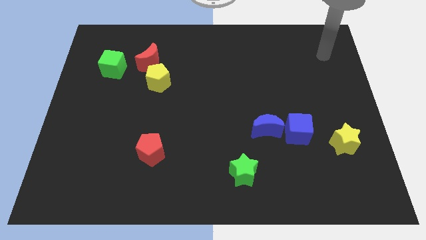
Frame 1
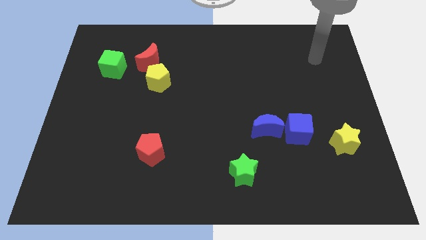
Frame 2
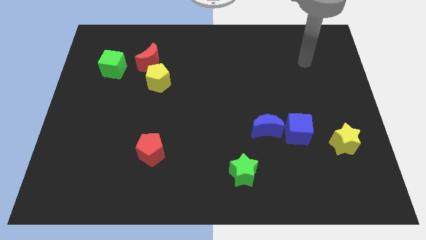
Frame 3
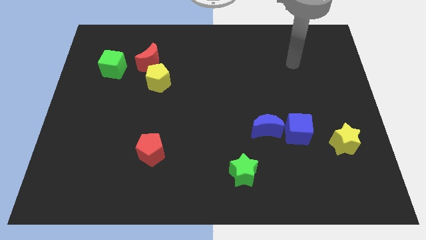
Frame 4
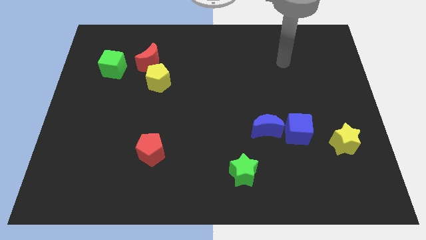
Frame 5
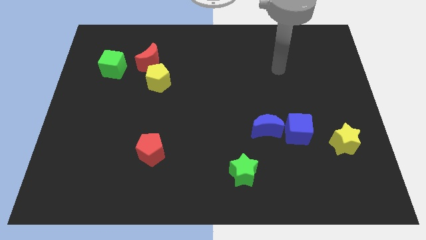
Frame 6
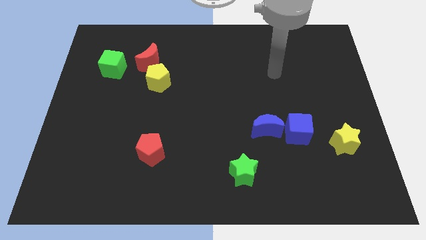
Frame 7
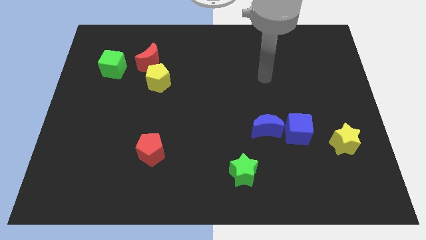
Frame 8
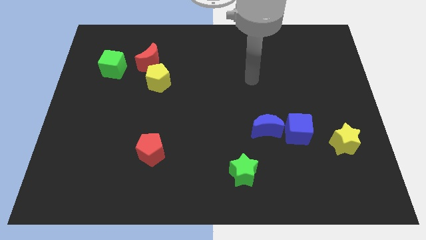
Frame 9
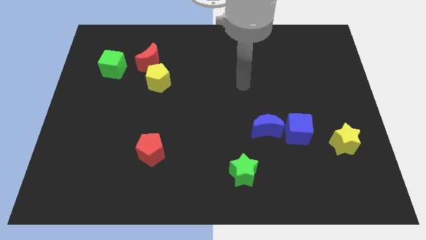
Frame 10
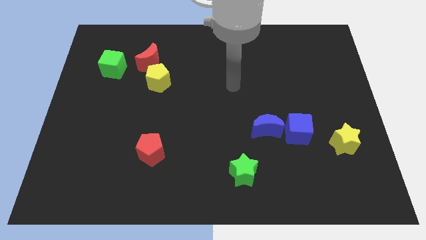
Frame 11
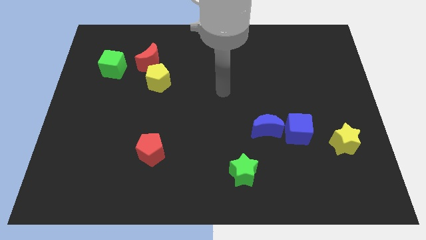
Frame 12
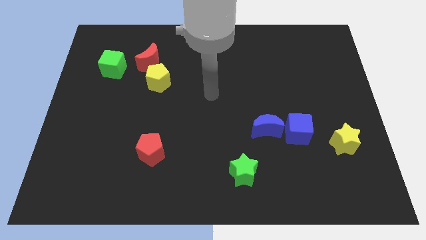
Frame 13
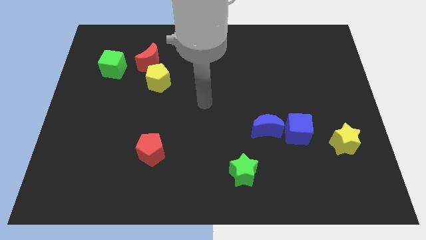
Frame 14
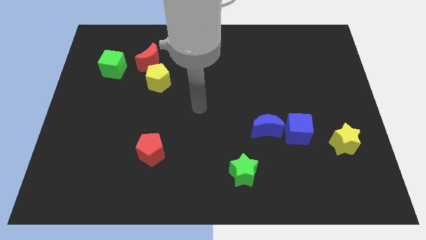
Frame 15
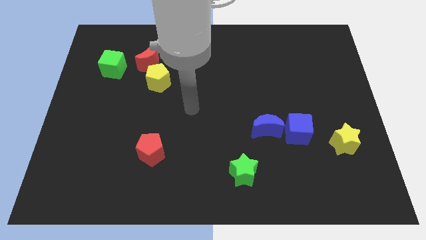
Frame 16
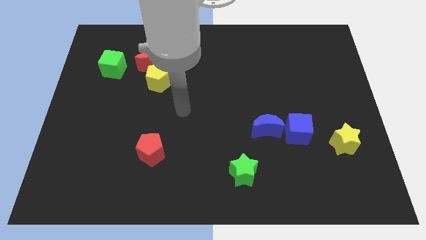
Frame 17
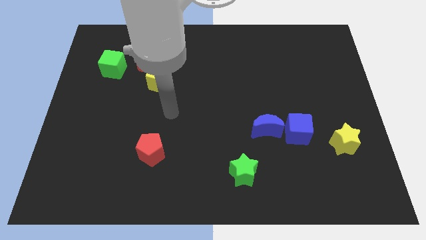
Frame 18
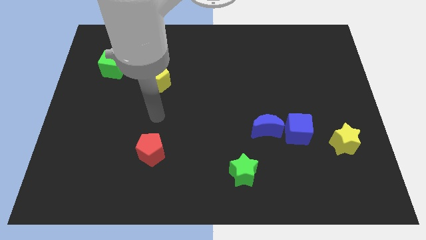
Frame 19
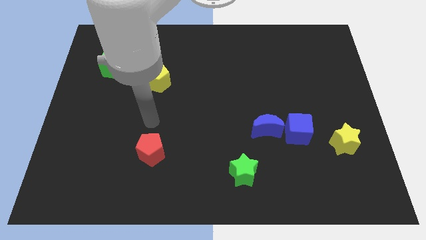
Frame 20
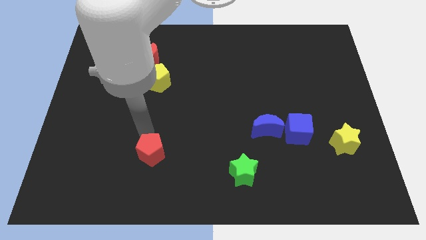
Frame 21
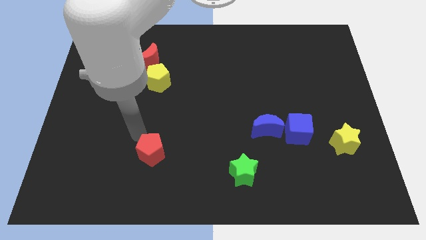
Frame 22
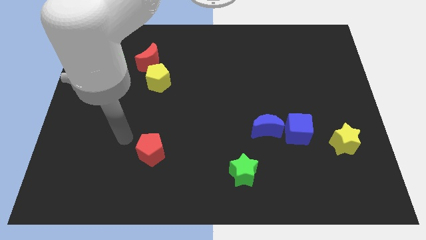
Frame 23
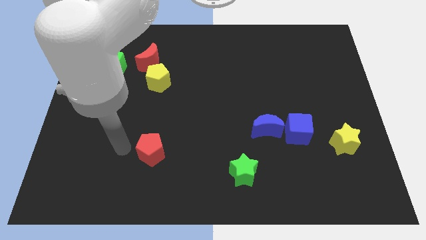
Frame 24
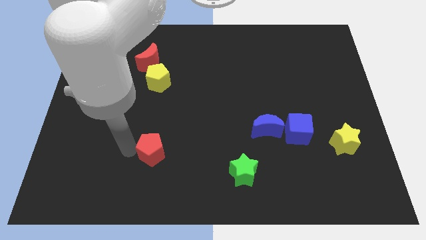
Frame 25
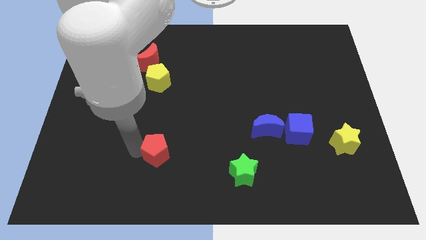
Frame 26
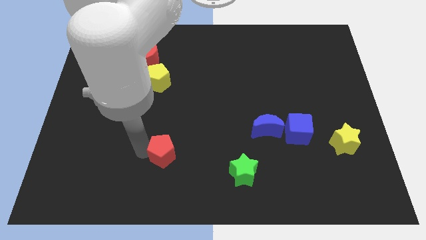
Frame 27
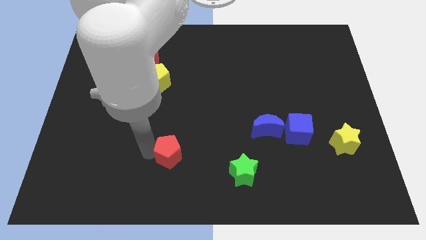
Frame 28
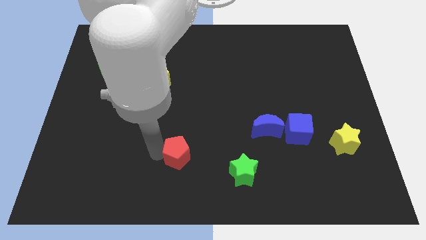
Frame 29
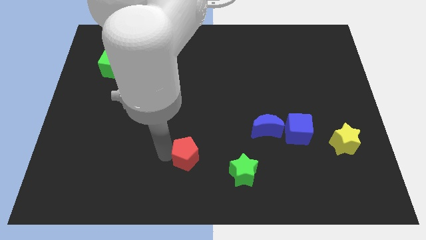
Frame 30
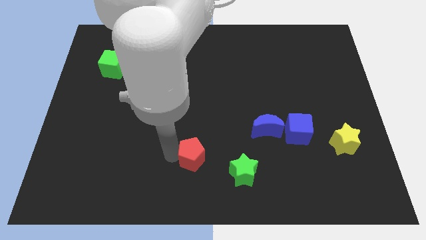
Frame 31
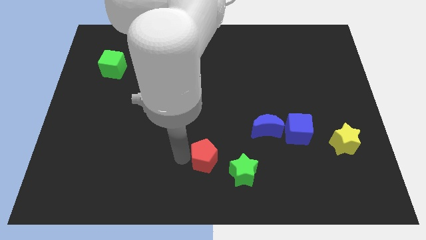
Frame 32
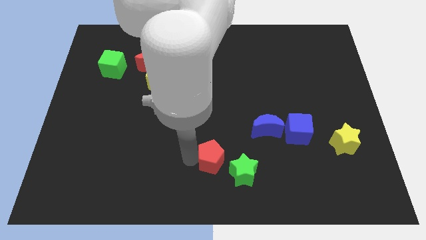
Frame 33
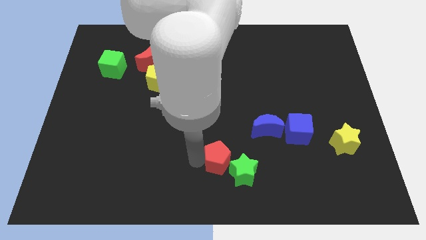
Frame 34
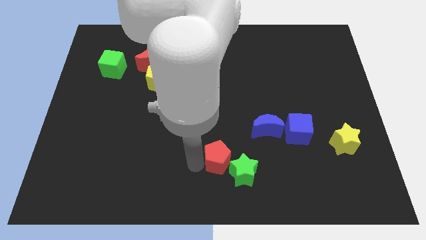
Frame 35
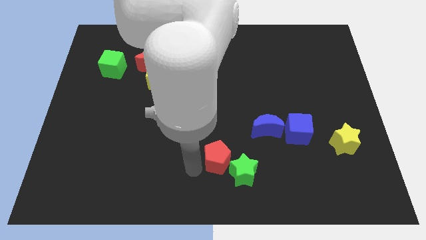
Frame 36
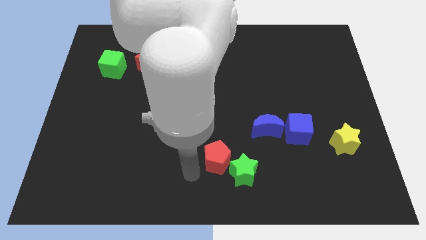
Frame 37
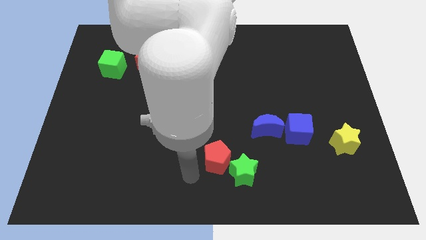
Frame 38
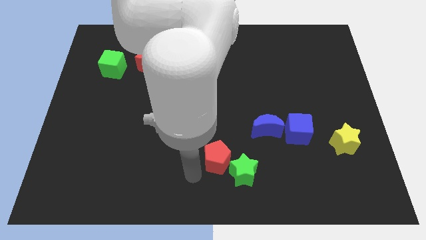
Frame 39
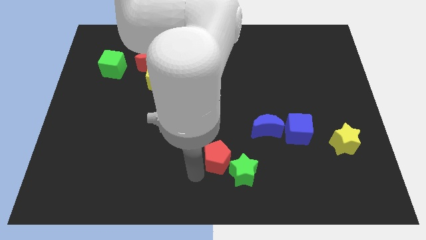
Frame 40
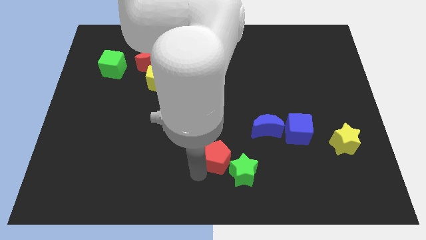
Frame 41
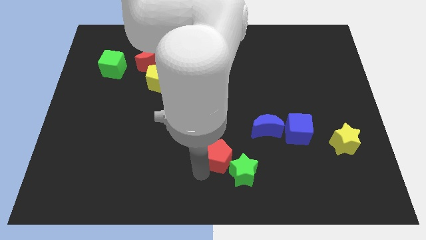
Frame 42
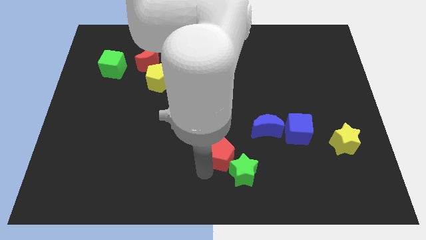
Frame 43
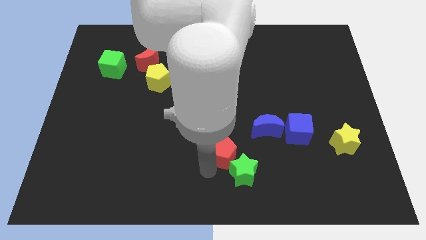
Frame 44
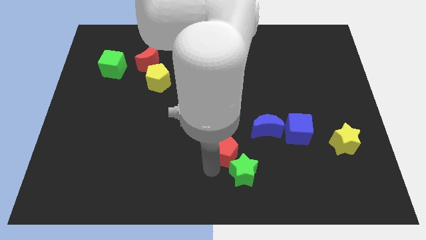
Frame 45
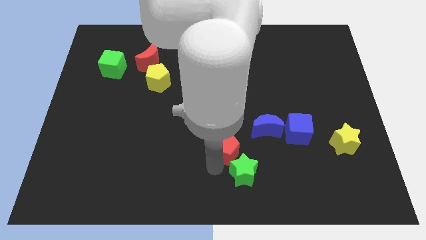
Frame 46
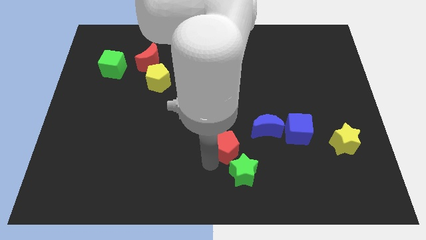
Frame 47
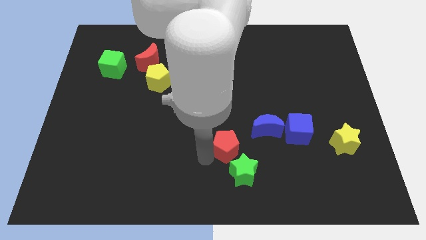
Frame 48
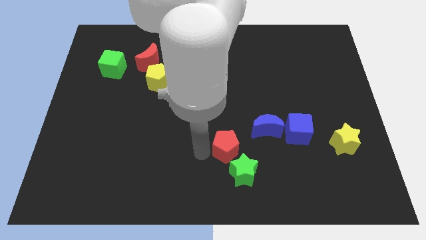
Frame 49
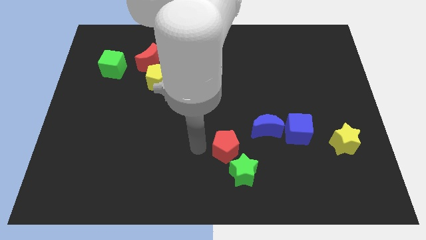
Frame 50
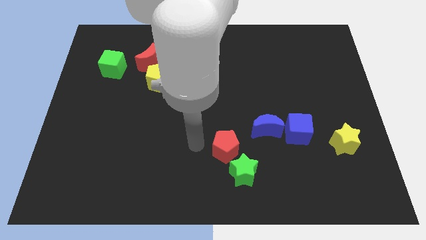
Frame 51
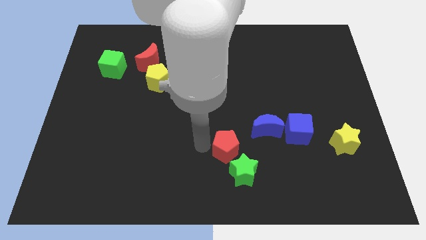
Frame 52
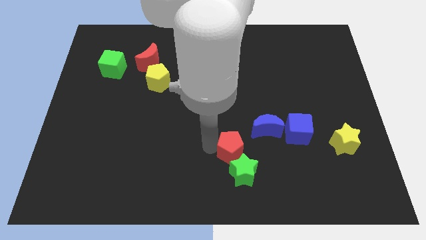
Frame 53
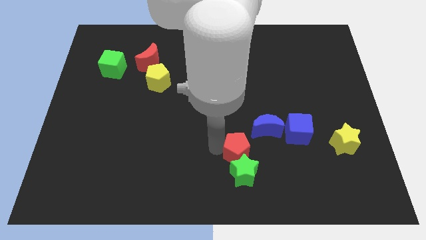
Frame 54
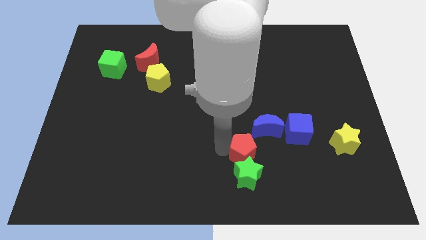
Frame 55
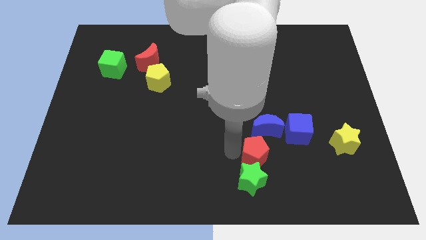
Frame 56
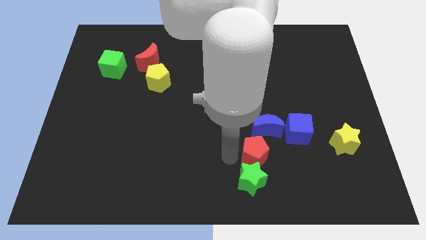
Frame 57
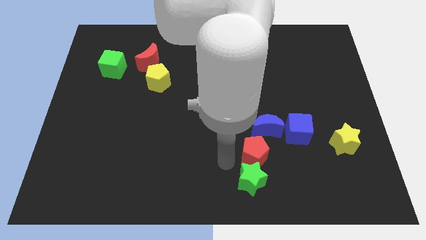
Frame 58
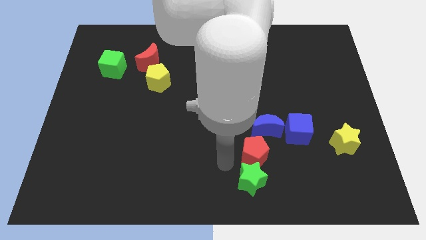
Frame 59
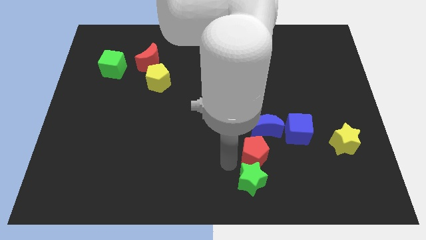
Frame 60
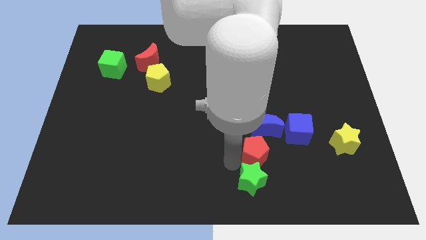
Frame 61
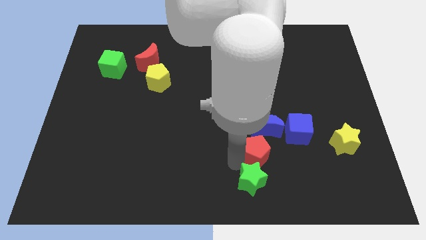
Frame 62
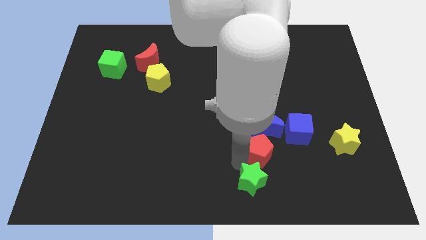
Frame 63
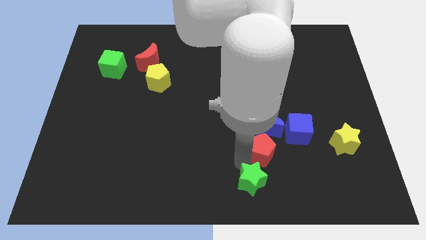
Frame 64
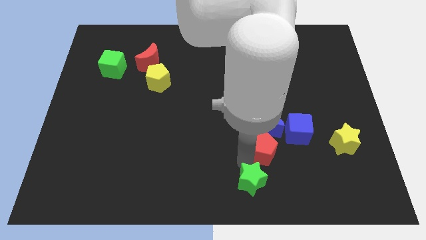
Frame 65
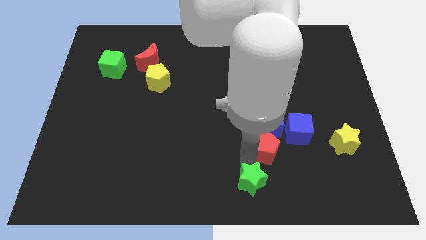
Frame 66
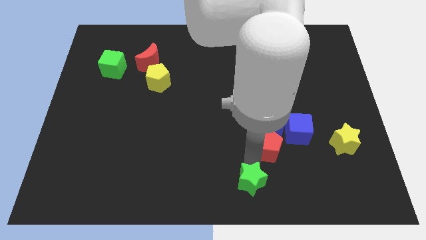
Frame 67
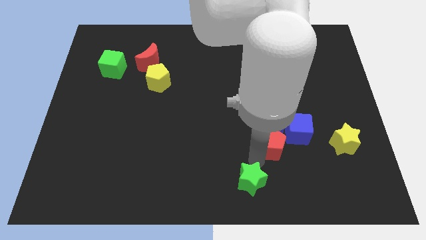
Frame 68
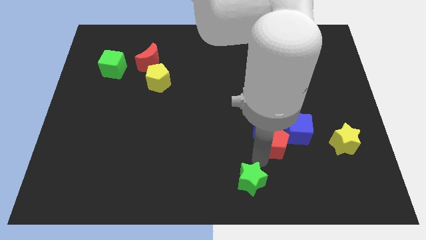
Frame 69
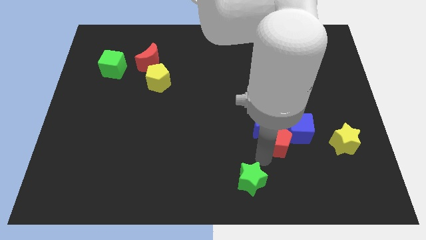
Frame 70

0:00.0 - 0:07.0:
put the red pentagon close to the blue cube

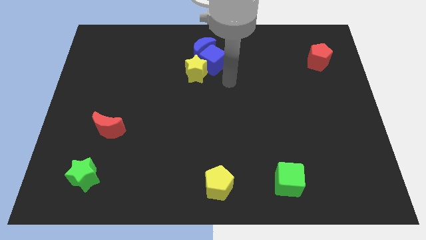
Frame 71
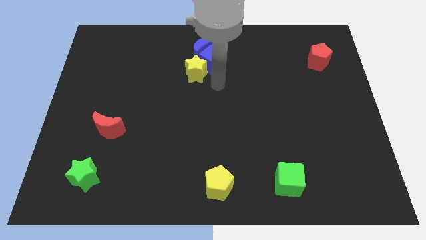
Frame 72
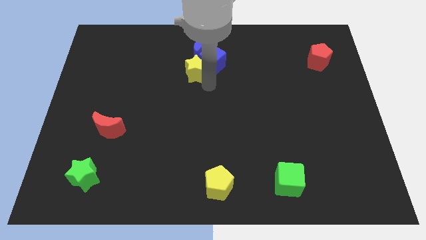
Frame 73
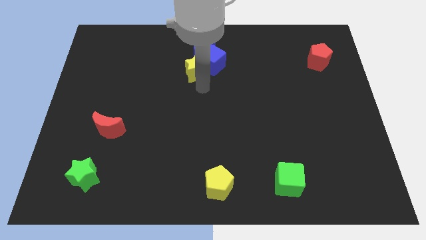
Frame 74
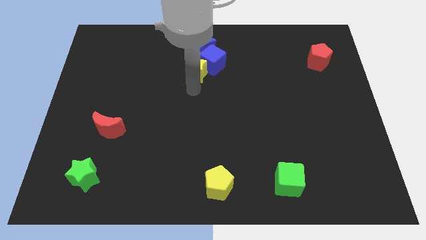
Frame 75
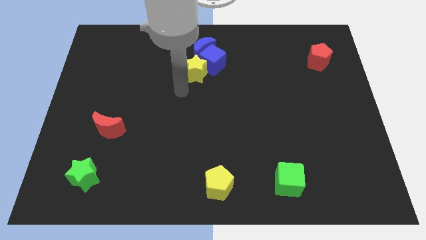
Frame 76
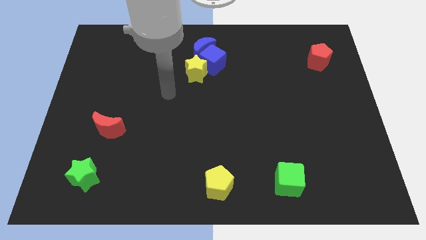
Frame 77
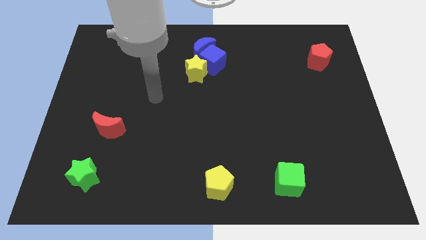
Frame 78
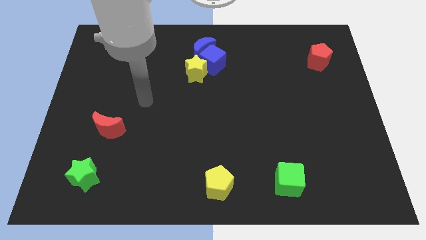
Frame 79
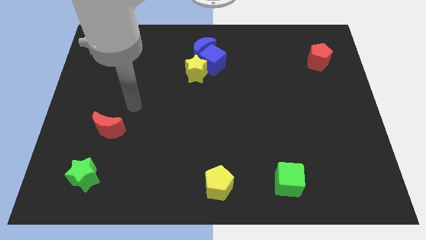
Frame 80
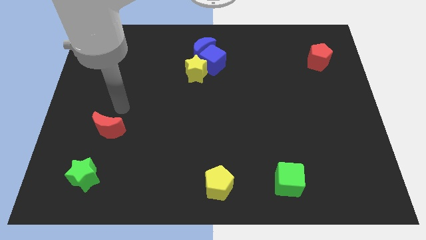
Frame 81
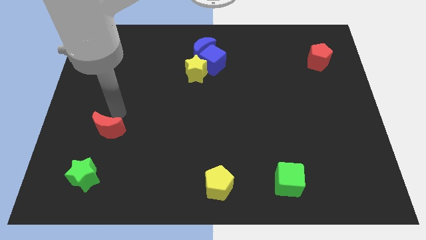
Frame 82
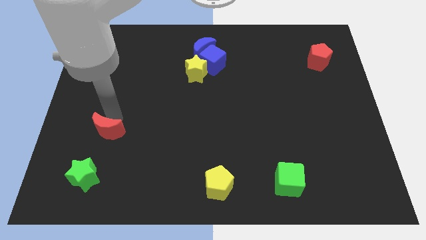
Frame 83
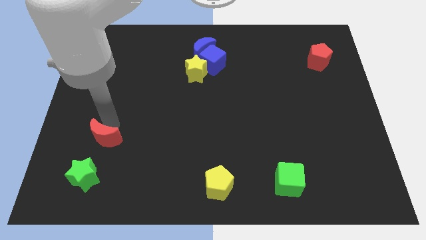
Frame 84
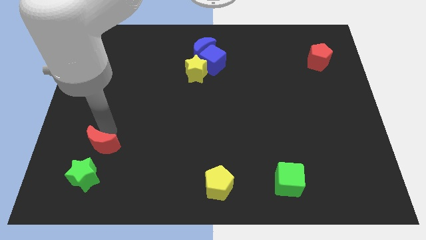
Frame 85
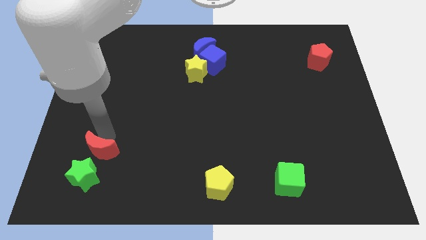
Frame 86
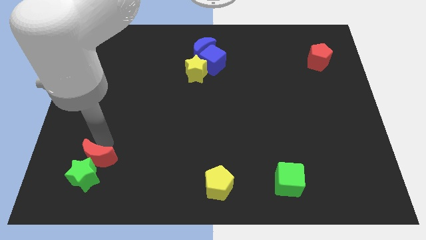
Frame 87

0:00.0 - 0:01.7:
put the red moon close to the green star

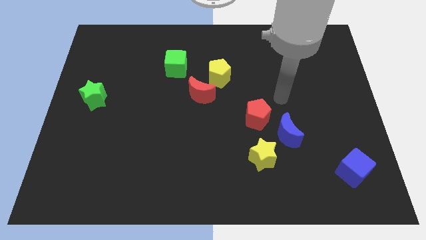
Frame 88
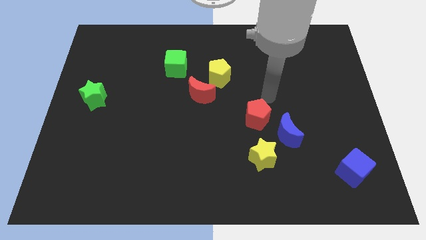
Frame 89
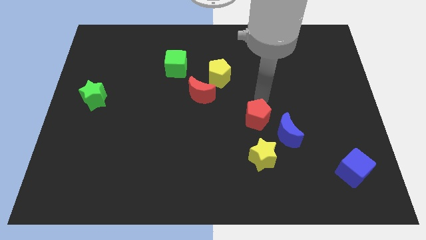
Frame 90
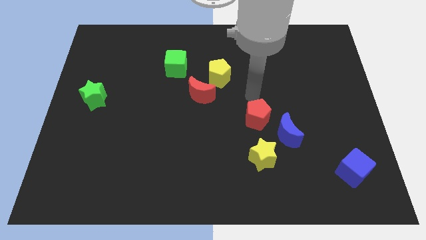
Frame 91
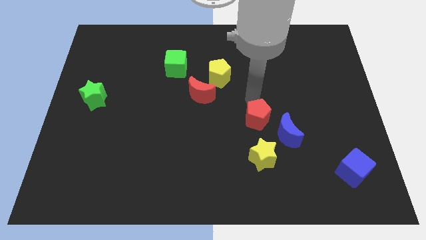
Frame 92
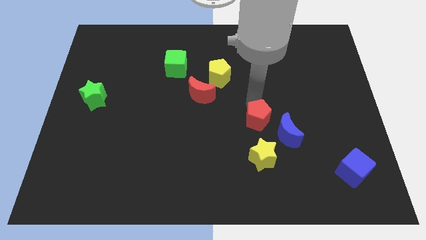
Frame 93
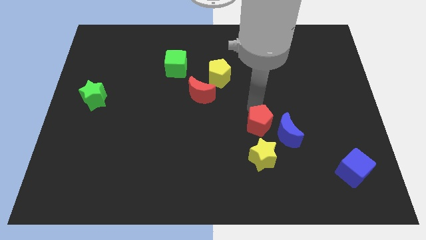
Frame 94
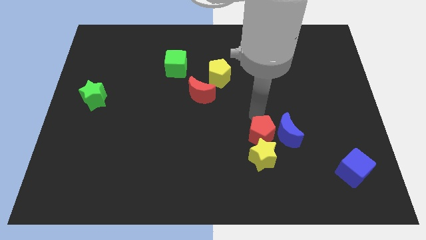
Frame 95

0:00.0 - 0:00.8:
put the red pentagon next to the yellow star
